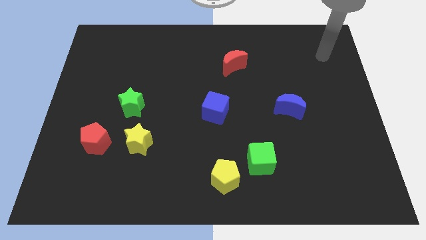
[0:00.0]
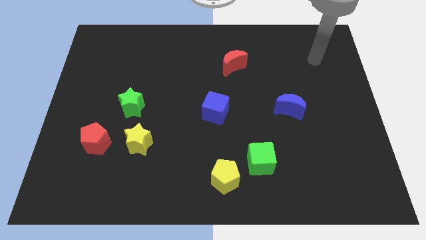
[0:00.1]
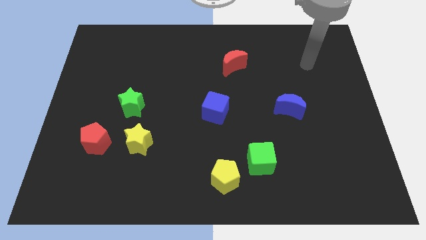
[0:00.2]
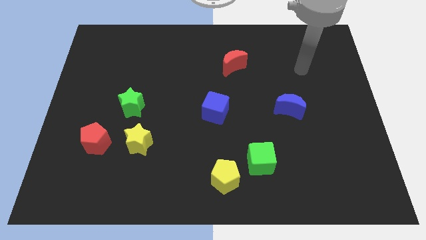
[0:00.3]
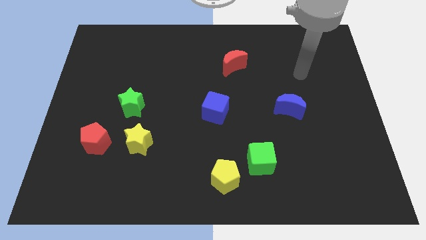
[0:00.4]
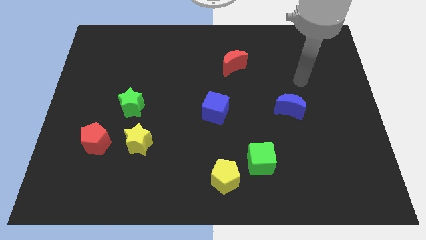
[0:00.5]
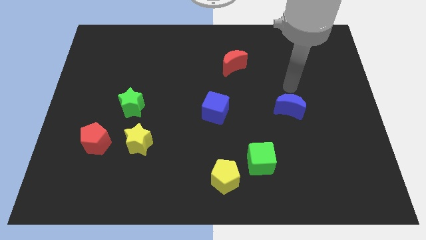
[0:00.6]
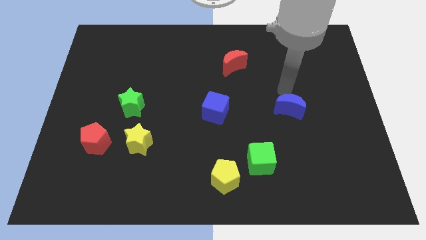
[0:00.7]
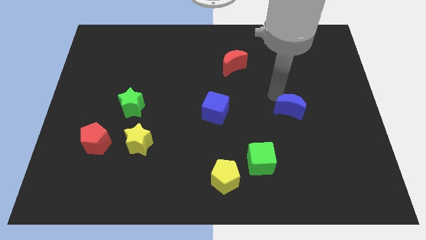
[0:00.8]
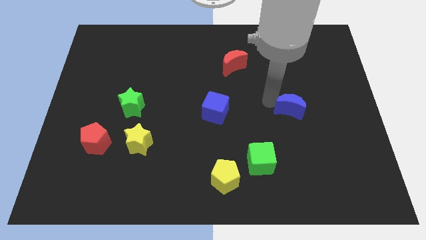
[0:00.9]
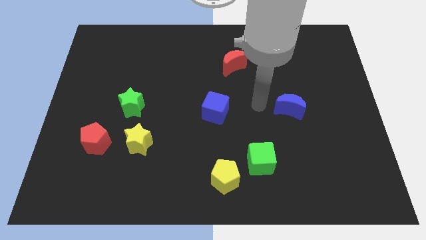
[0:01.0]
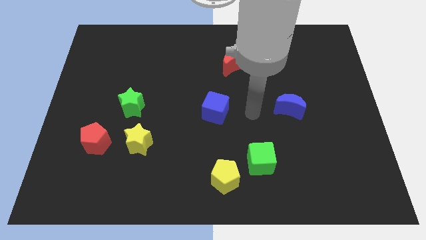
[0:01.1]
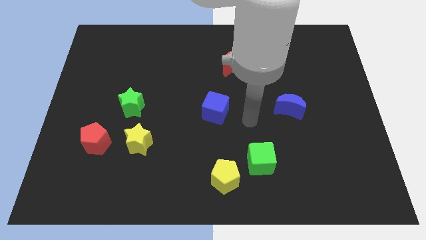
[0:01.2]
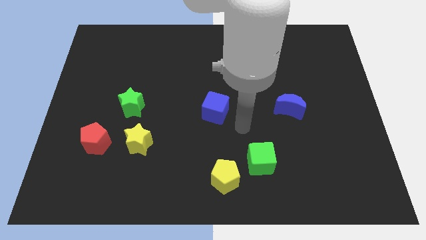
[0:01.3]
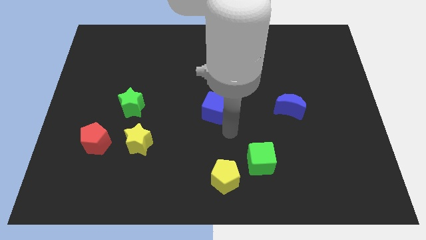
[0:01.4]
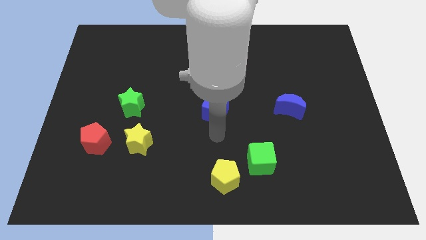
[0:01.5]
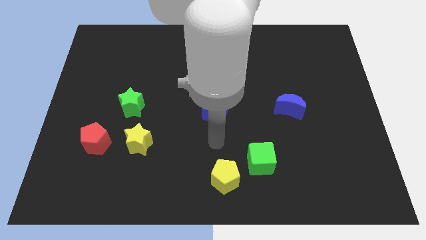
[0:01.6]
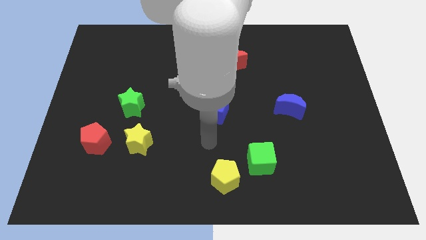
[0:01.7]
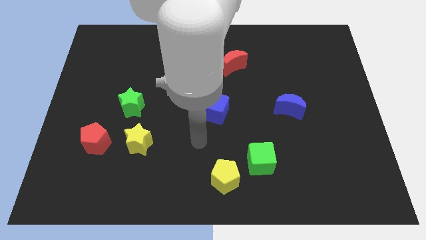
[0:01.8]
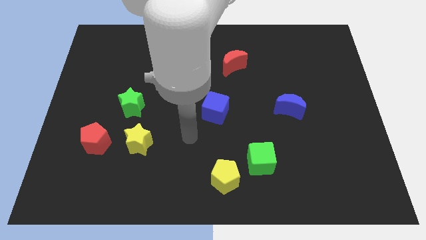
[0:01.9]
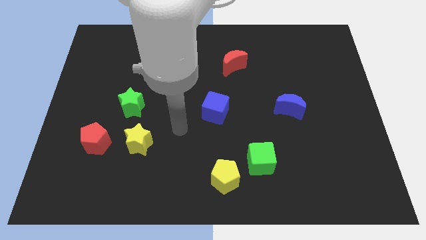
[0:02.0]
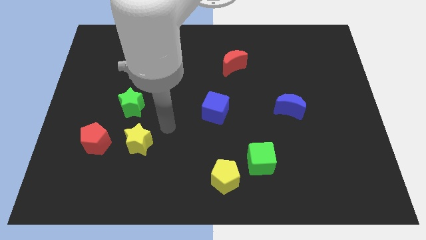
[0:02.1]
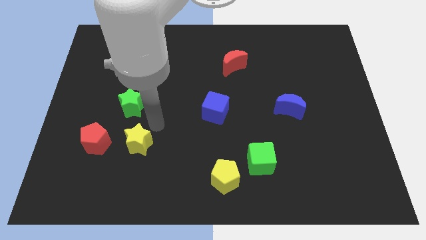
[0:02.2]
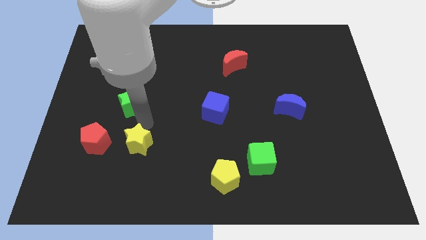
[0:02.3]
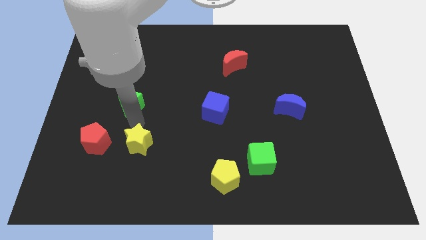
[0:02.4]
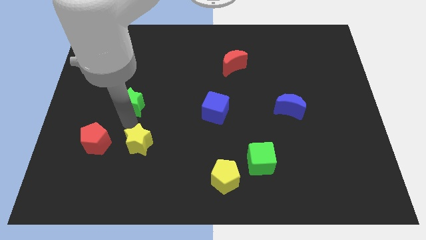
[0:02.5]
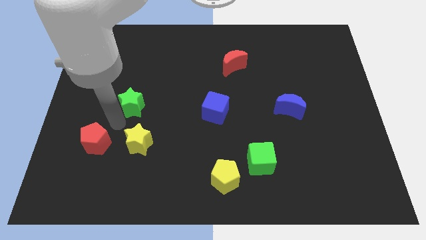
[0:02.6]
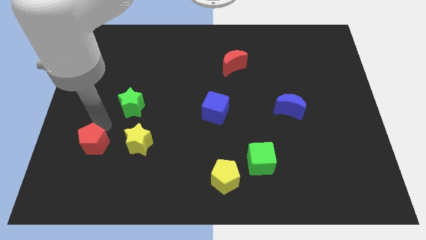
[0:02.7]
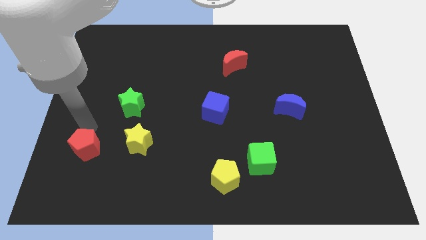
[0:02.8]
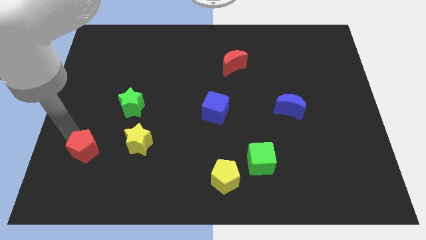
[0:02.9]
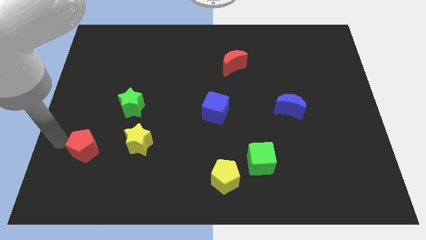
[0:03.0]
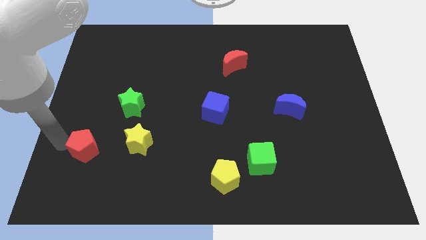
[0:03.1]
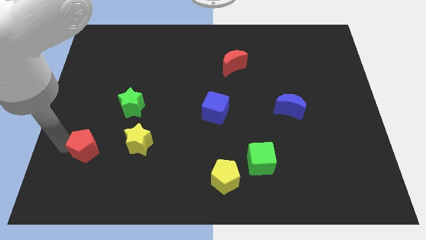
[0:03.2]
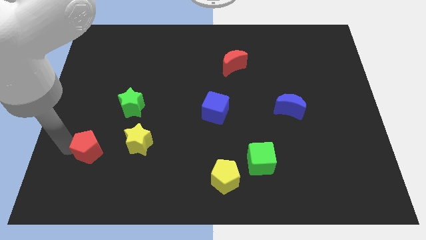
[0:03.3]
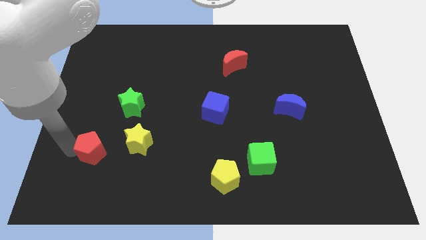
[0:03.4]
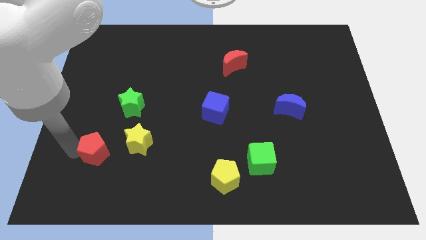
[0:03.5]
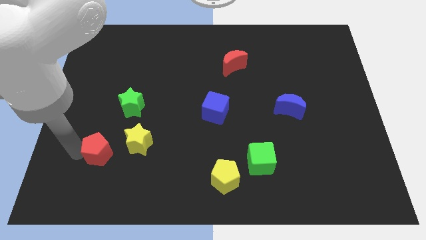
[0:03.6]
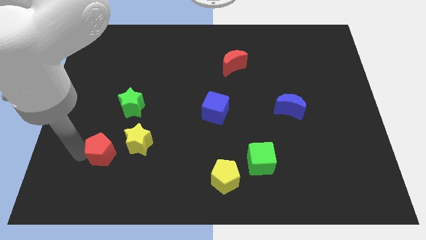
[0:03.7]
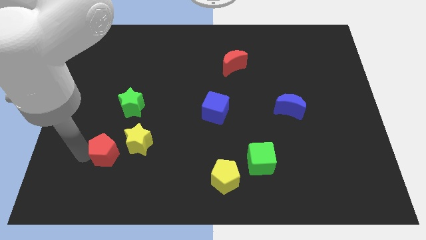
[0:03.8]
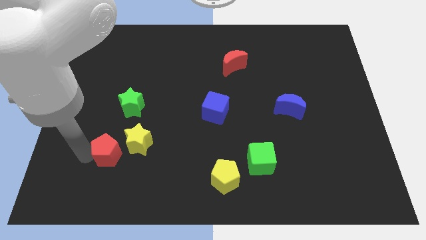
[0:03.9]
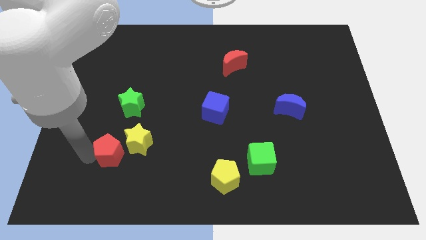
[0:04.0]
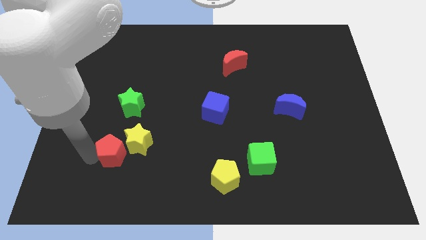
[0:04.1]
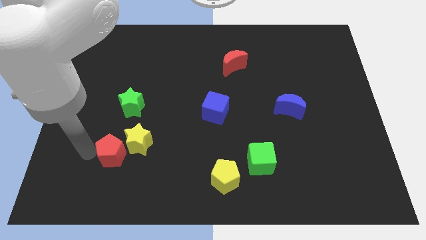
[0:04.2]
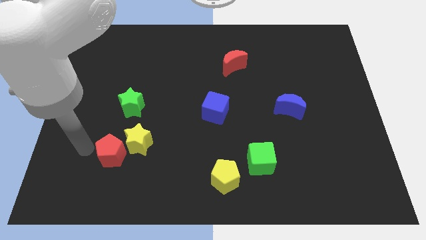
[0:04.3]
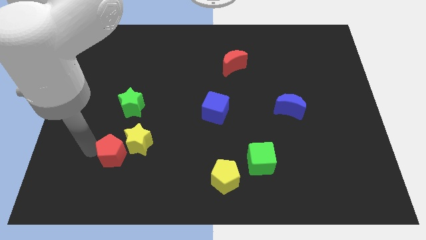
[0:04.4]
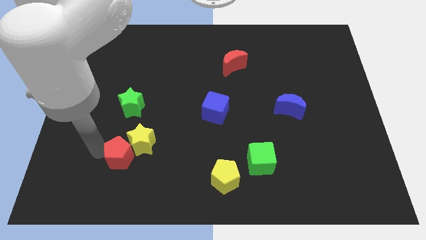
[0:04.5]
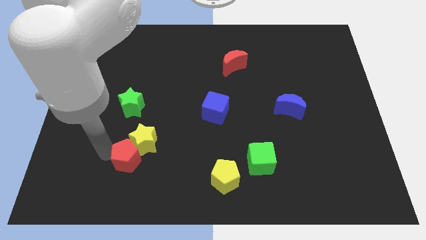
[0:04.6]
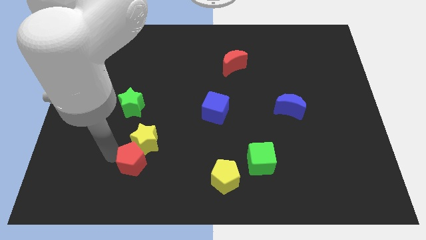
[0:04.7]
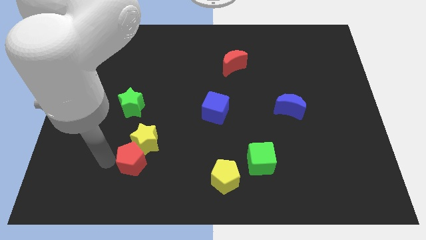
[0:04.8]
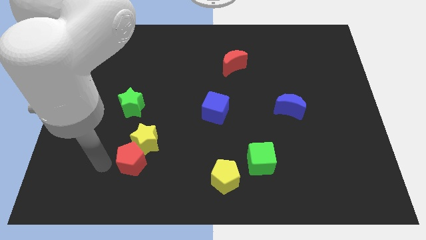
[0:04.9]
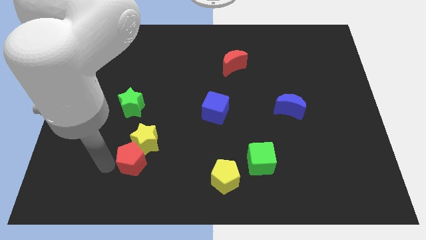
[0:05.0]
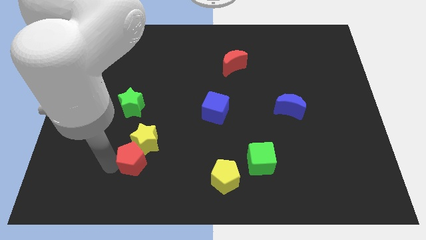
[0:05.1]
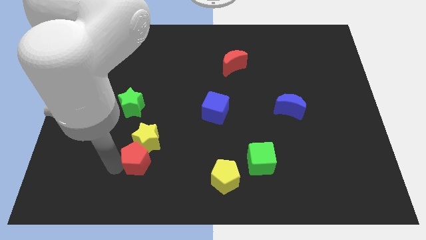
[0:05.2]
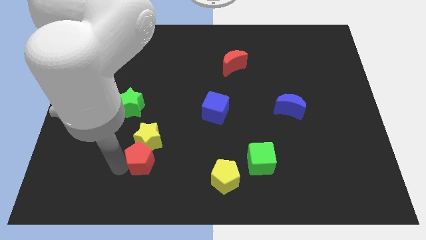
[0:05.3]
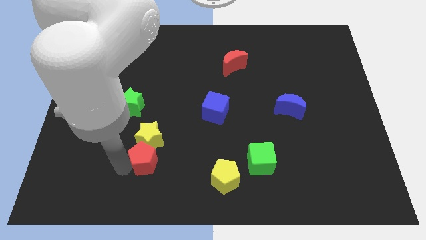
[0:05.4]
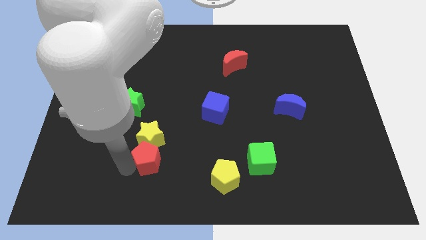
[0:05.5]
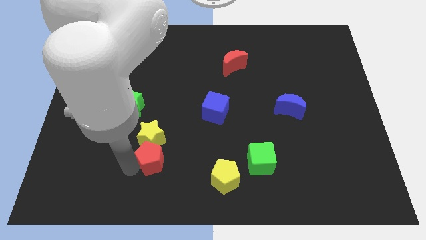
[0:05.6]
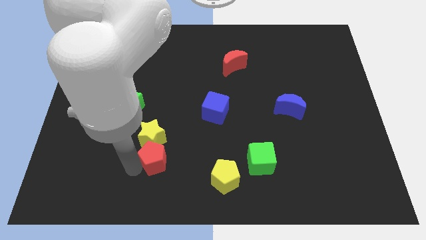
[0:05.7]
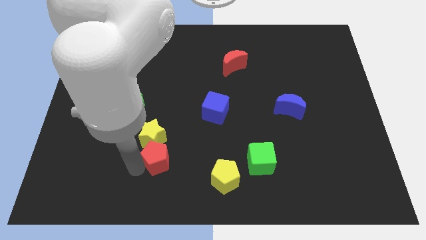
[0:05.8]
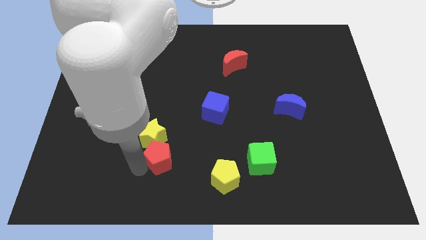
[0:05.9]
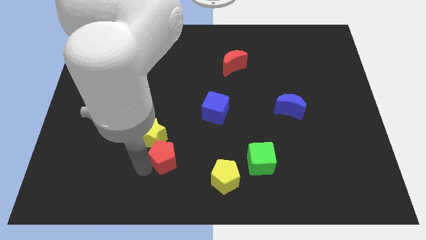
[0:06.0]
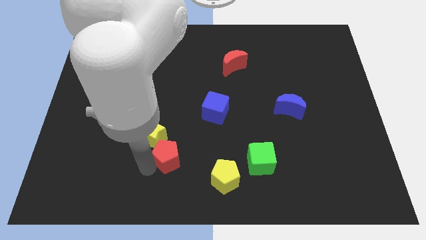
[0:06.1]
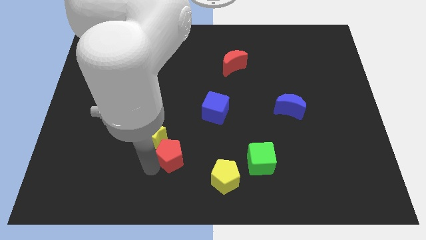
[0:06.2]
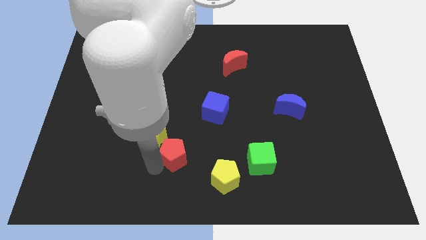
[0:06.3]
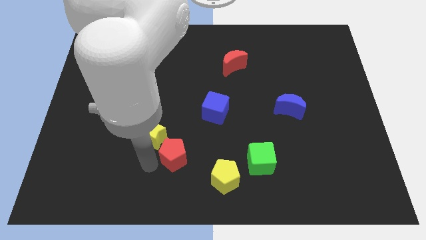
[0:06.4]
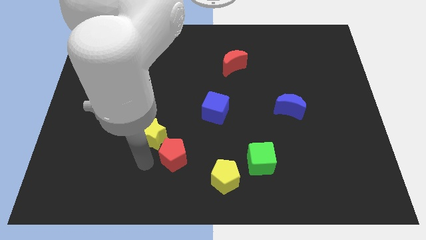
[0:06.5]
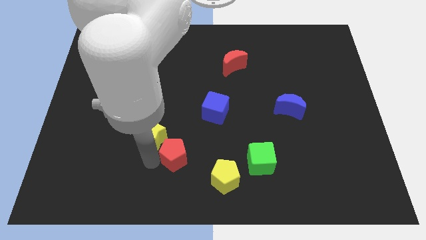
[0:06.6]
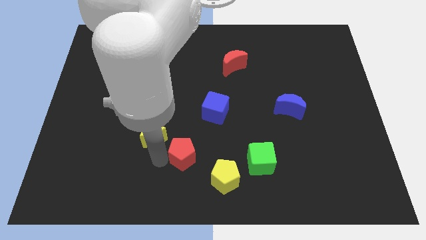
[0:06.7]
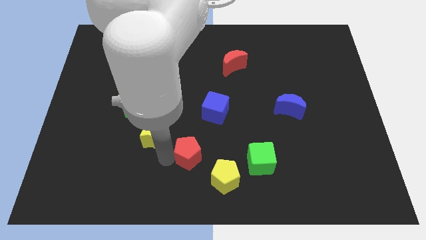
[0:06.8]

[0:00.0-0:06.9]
push the red pentagon to the right

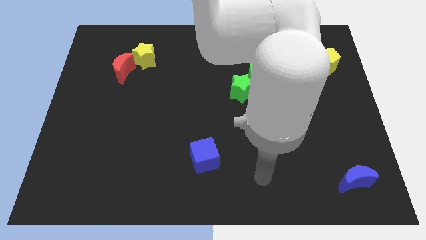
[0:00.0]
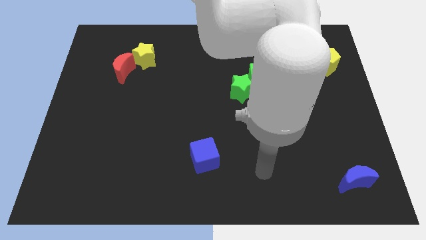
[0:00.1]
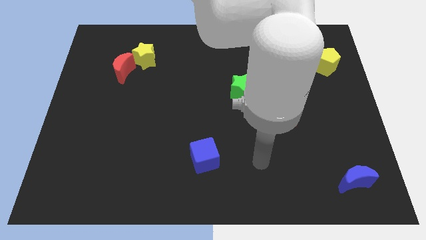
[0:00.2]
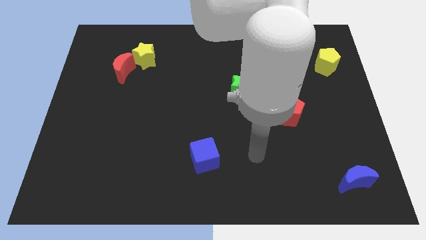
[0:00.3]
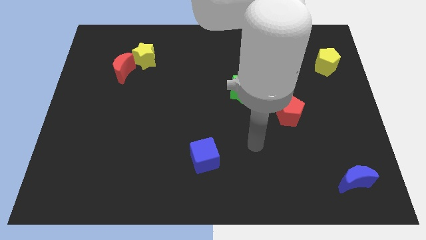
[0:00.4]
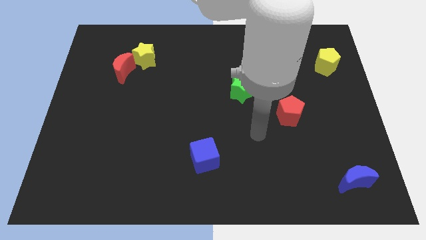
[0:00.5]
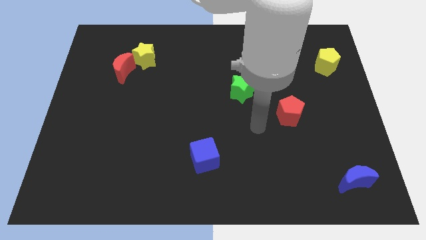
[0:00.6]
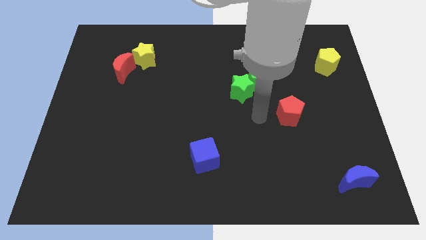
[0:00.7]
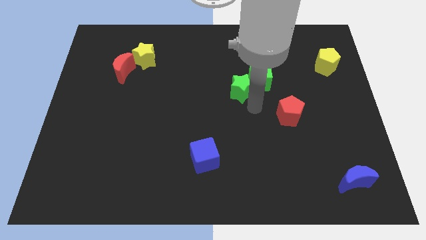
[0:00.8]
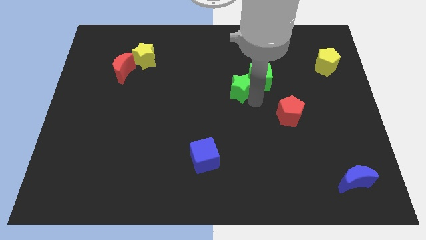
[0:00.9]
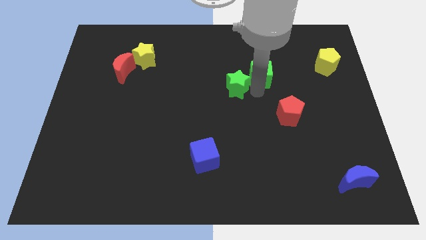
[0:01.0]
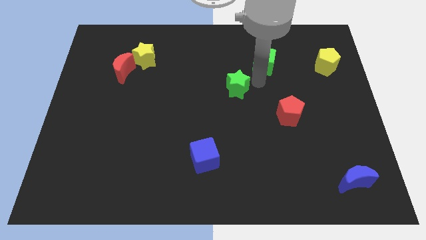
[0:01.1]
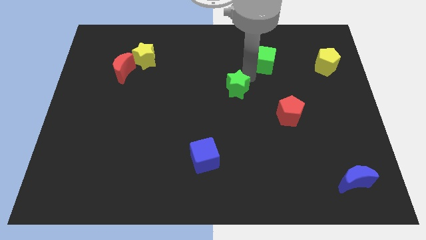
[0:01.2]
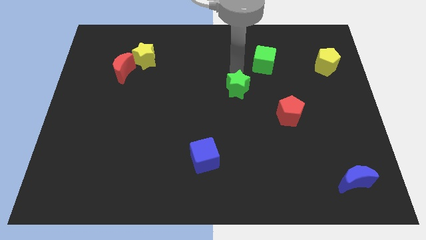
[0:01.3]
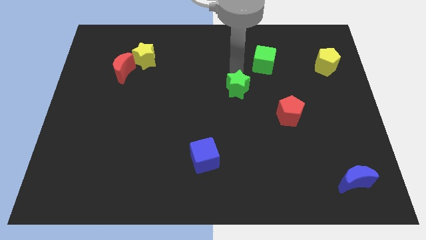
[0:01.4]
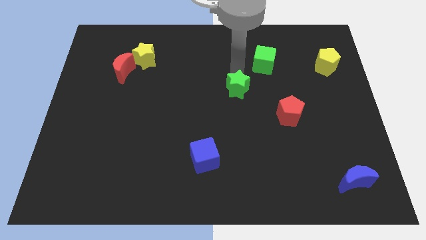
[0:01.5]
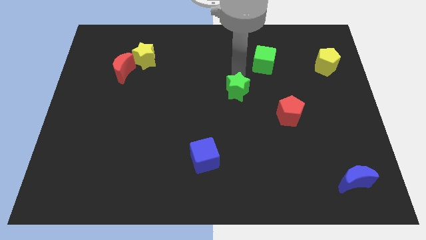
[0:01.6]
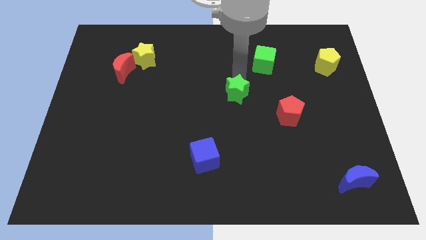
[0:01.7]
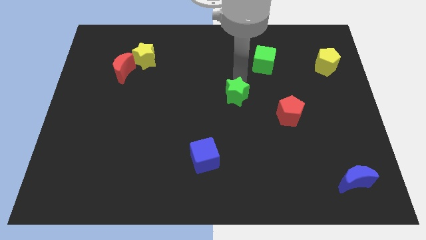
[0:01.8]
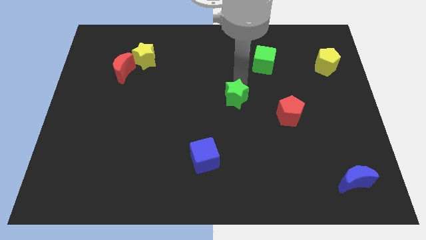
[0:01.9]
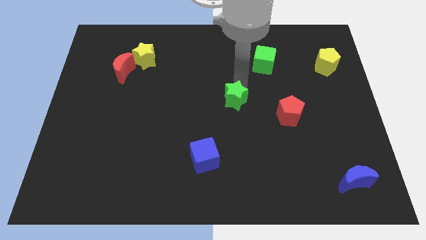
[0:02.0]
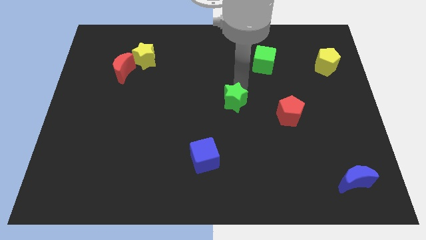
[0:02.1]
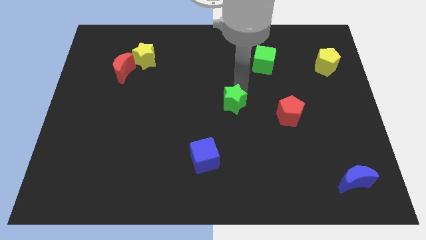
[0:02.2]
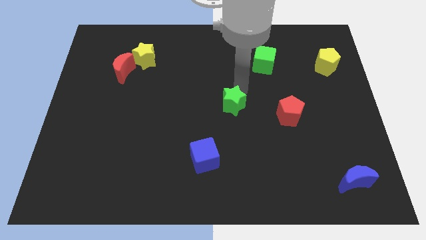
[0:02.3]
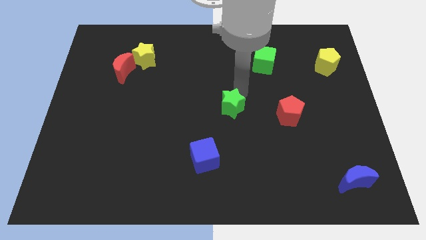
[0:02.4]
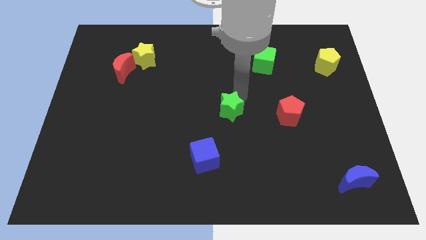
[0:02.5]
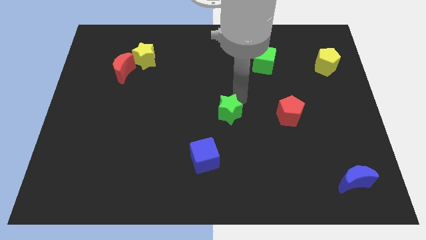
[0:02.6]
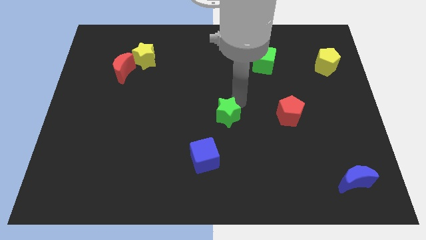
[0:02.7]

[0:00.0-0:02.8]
push the green star a little bit down
